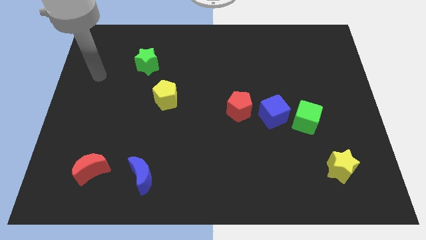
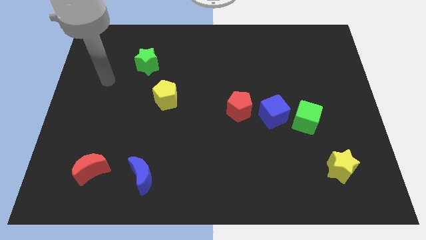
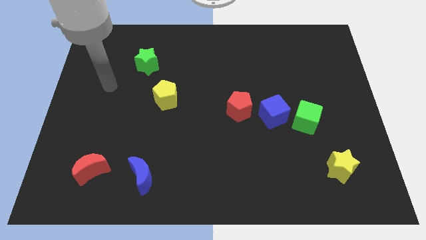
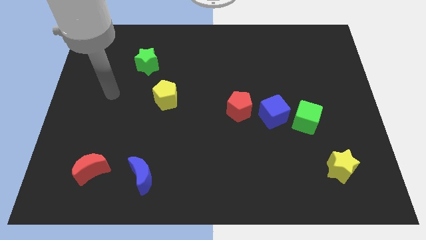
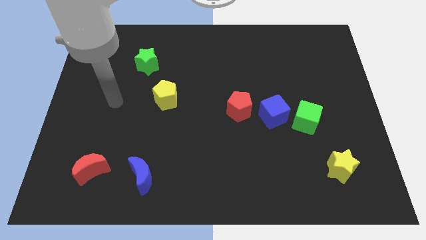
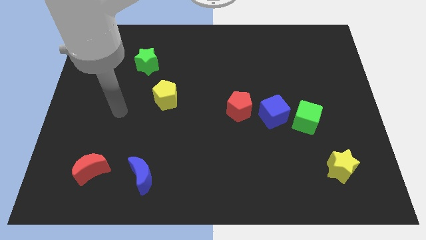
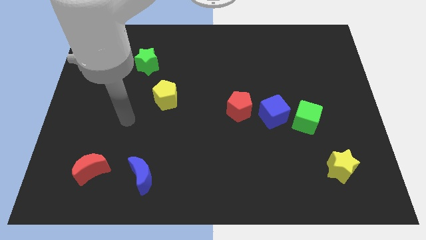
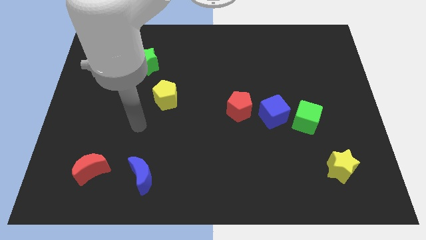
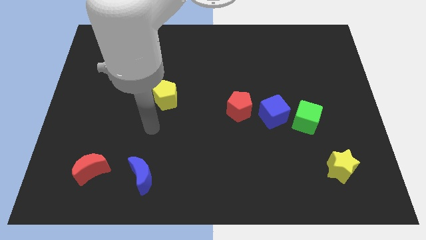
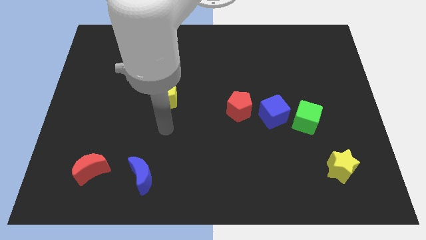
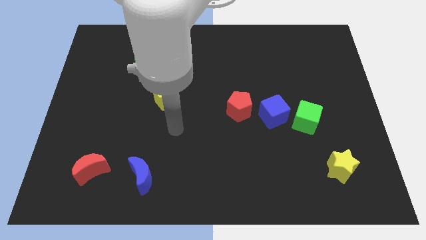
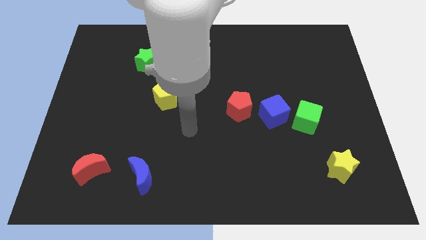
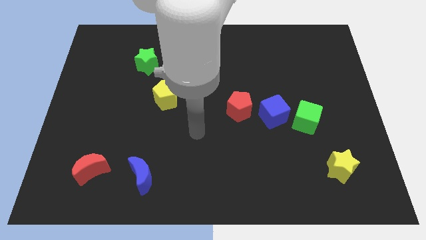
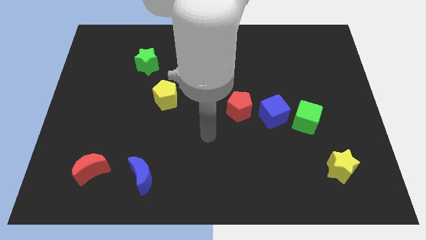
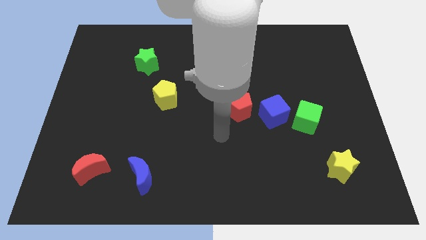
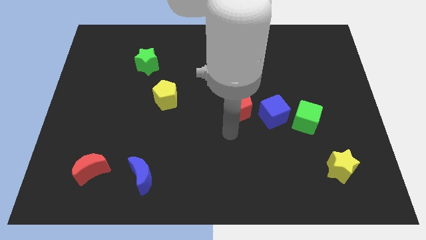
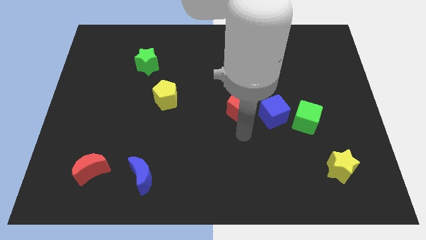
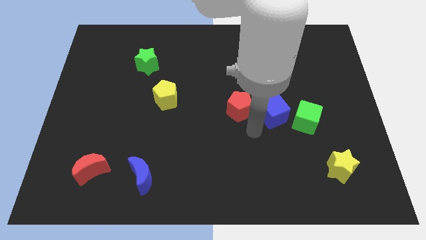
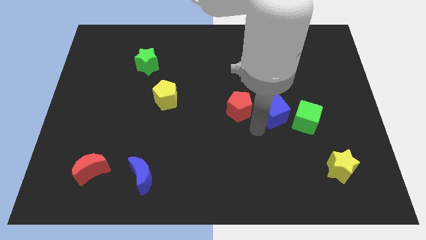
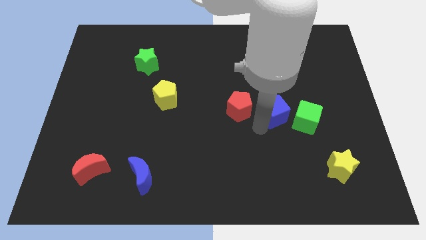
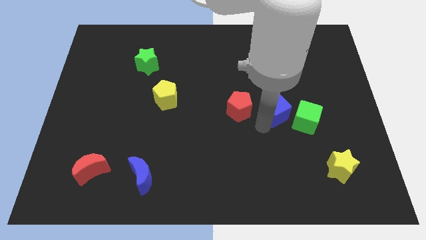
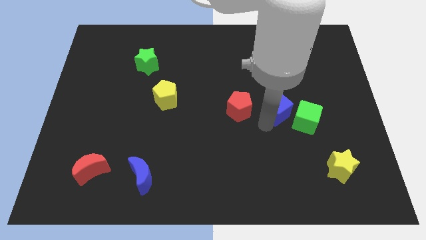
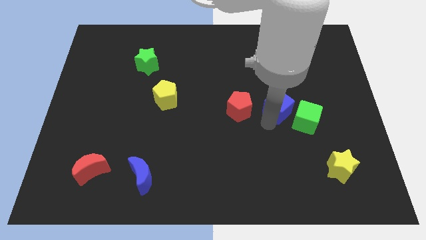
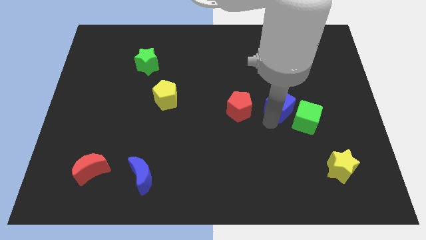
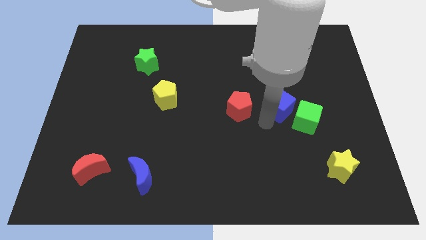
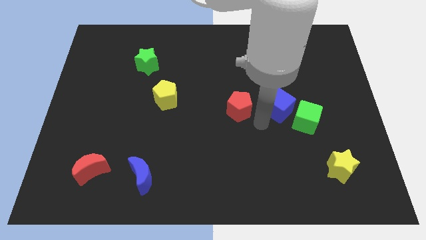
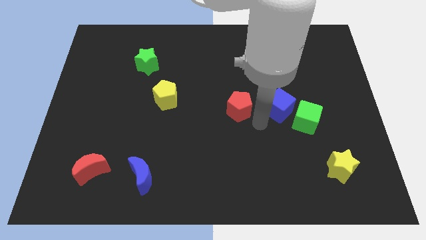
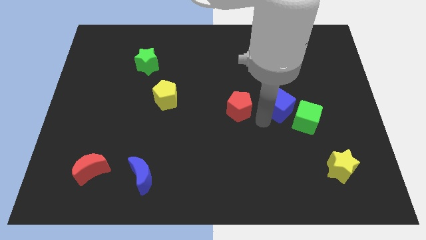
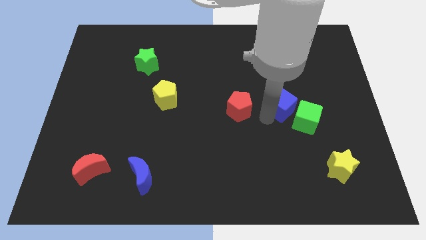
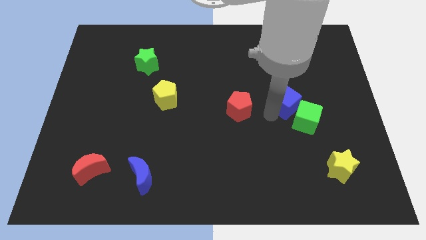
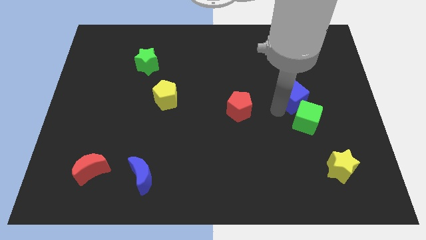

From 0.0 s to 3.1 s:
push the blue cube up and then right slightly

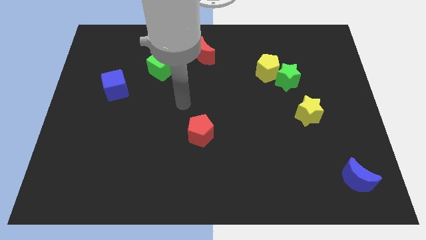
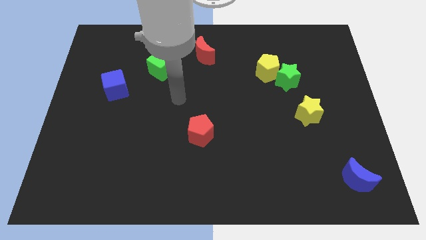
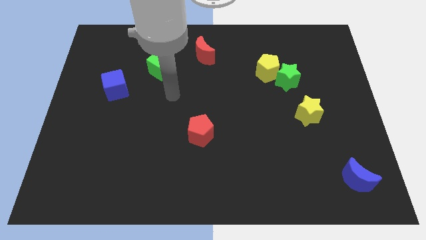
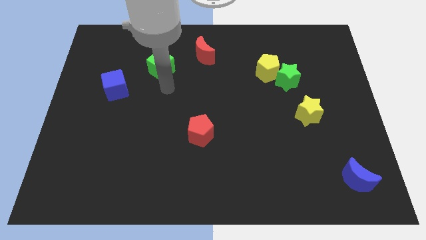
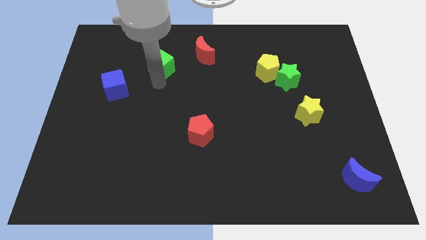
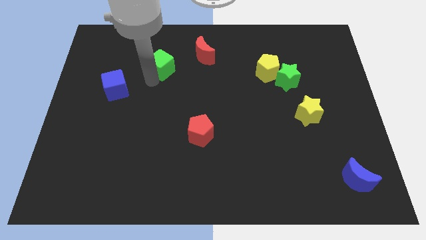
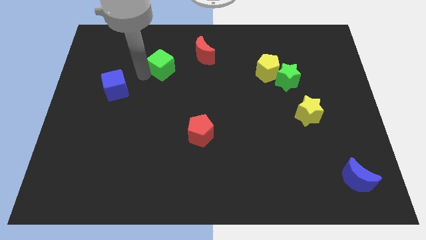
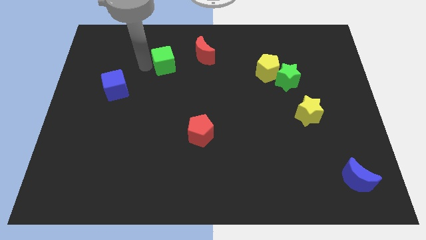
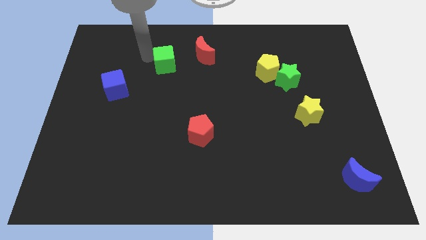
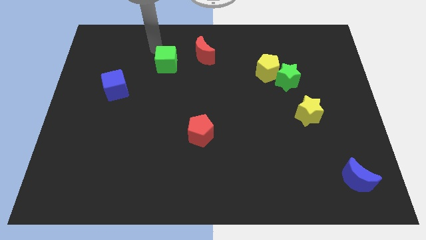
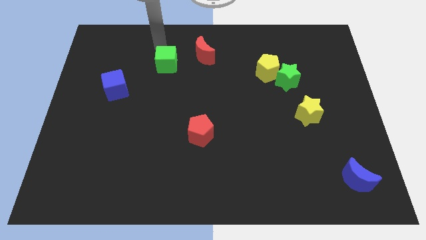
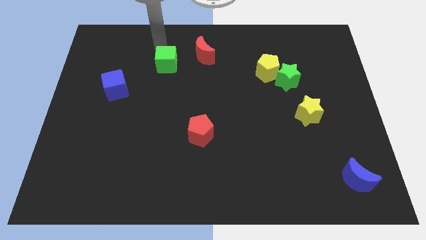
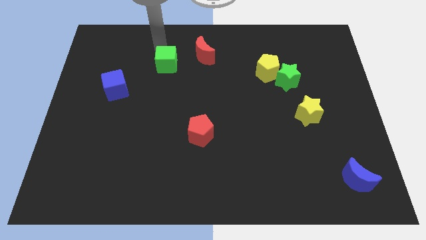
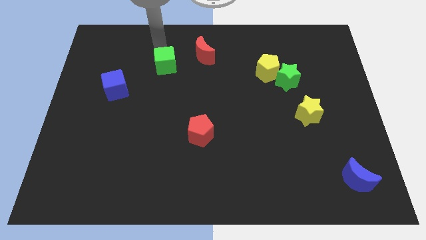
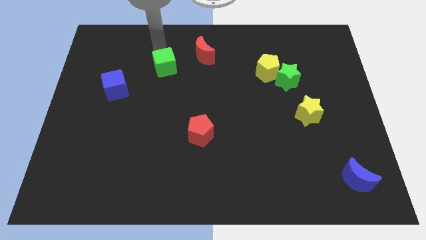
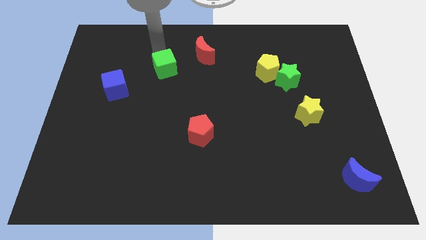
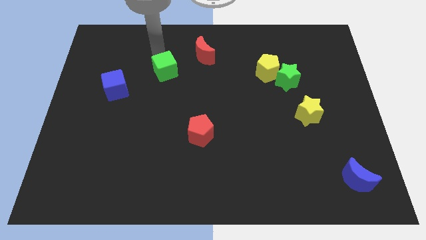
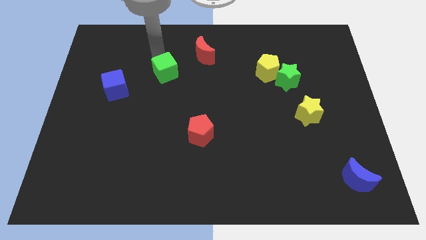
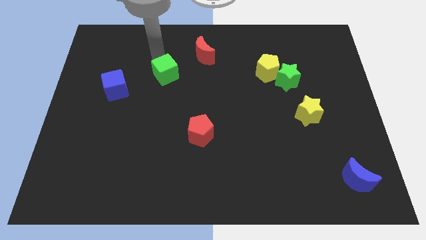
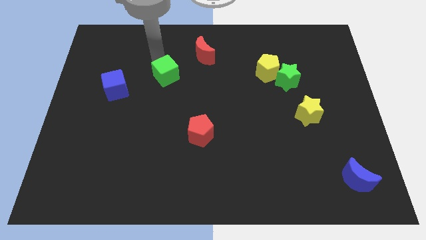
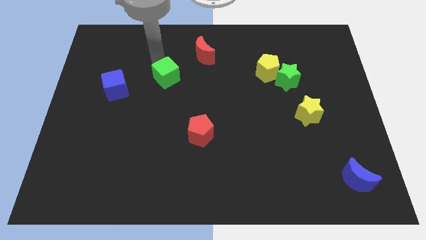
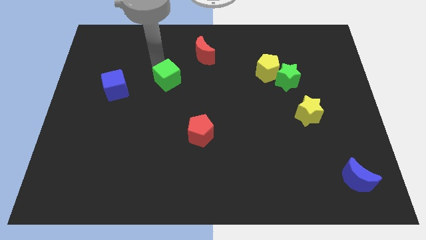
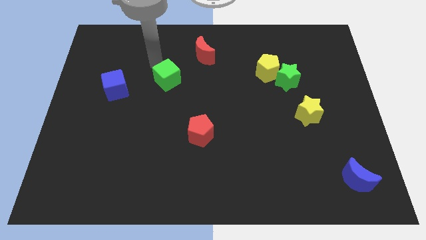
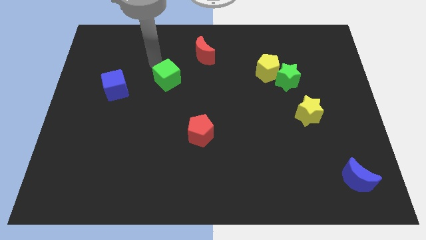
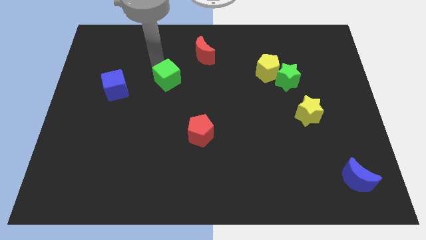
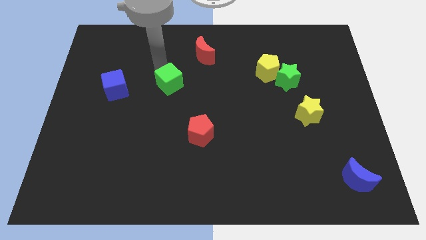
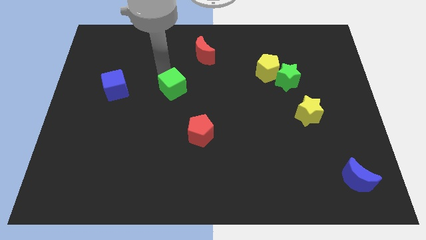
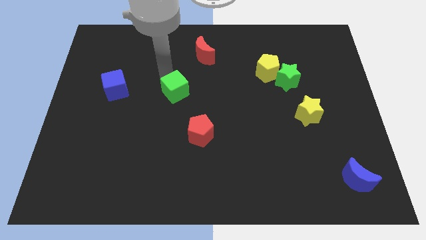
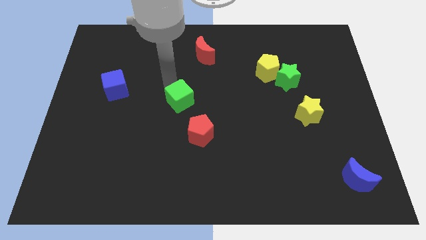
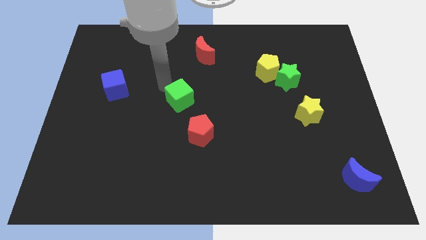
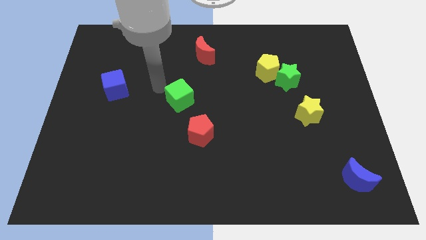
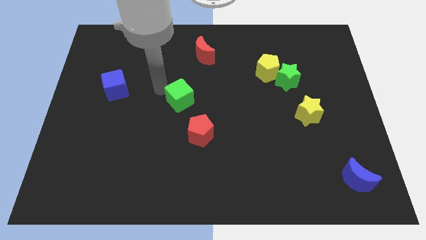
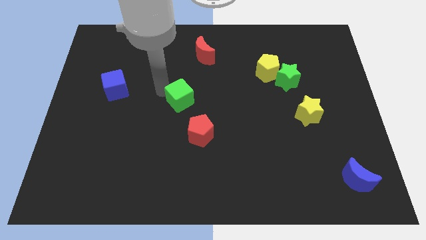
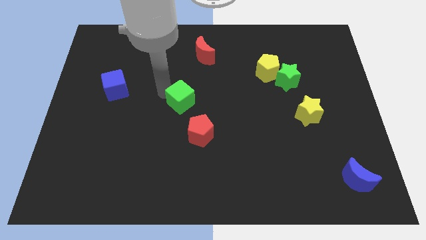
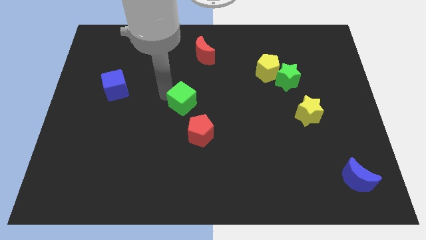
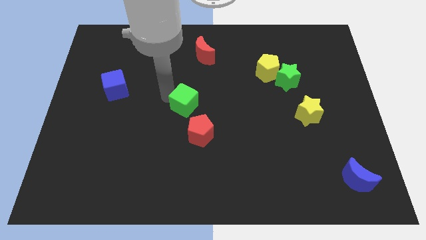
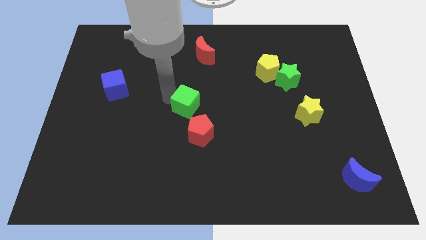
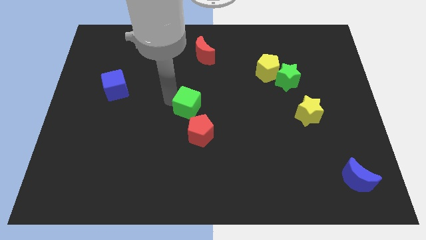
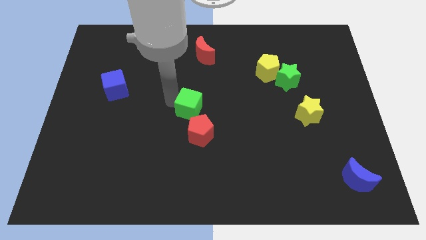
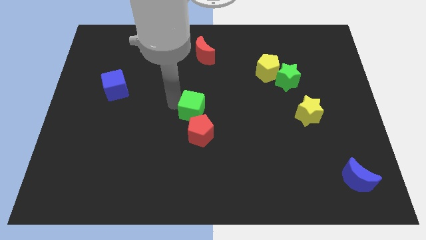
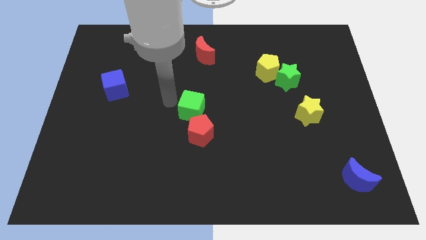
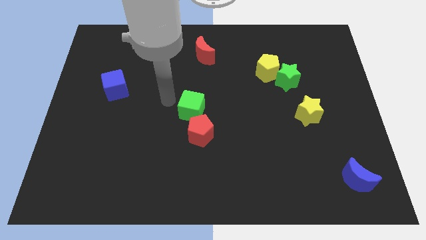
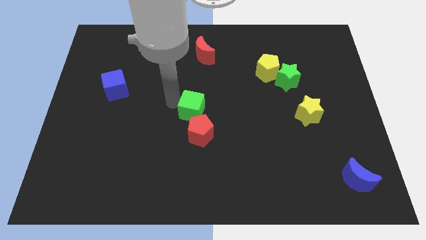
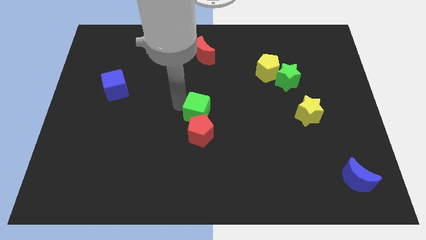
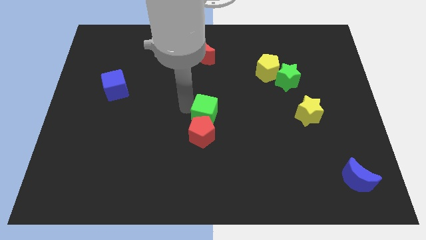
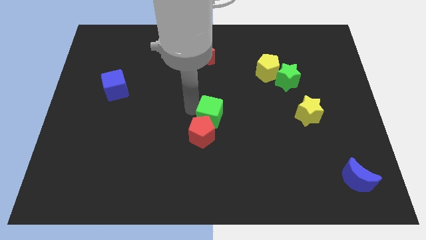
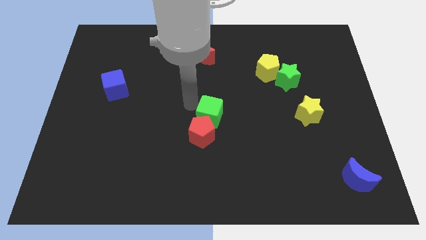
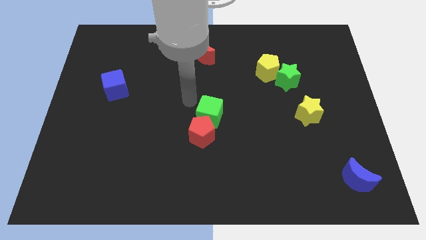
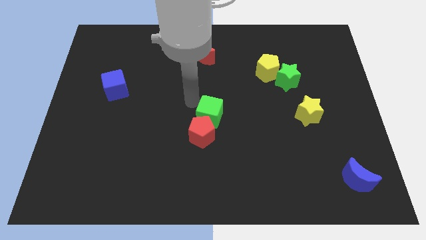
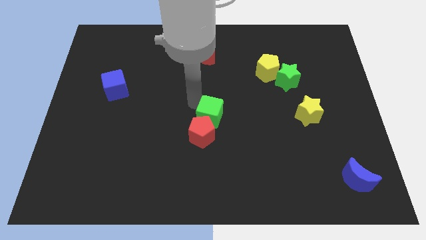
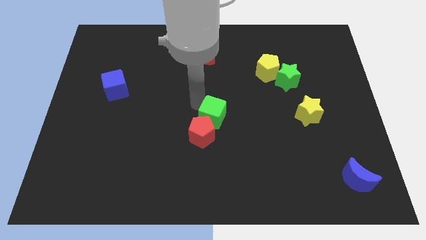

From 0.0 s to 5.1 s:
move the green cube down and then to the right
